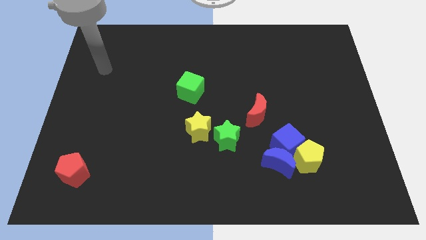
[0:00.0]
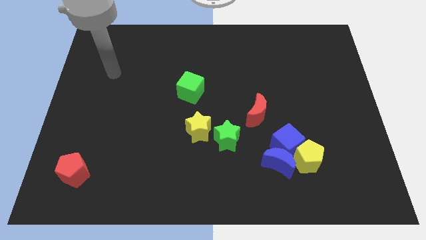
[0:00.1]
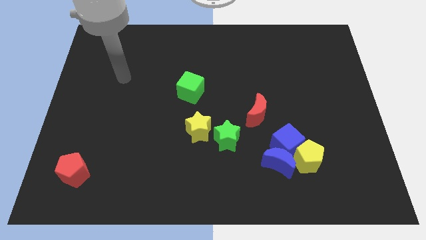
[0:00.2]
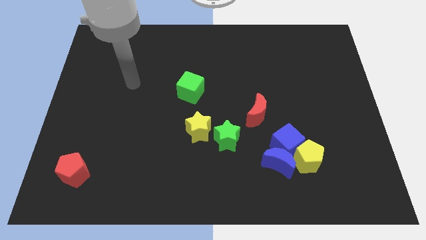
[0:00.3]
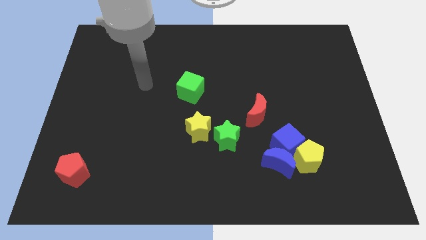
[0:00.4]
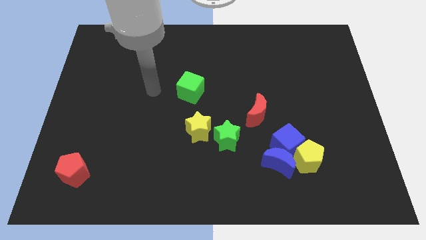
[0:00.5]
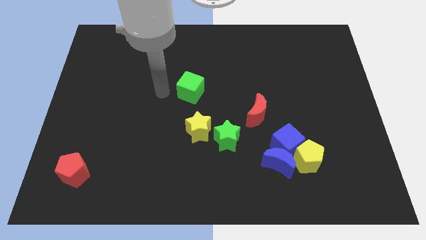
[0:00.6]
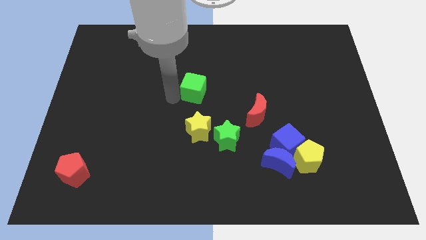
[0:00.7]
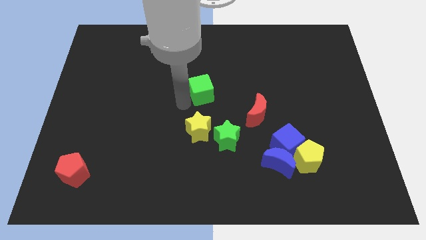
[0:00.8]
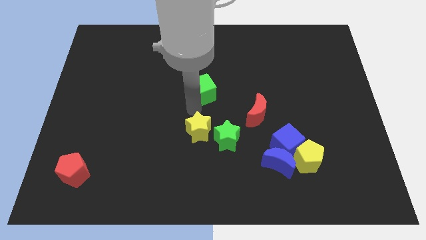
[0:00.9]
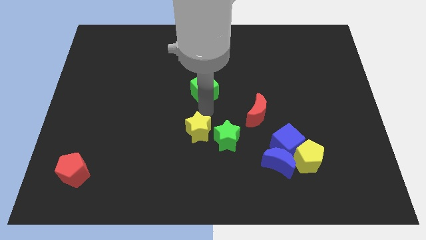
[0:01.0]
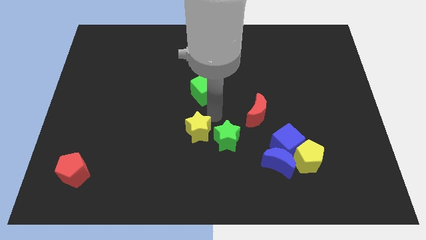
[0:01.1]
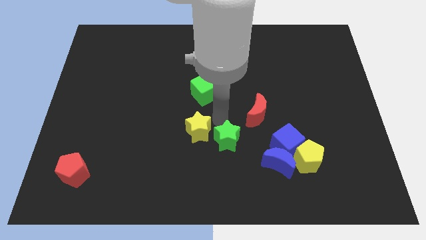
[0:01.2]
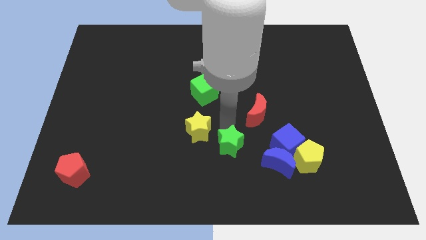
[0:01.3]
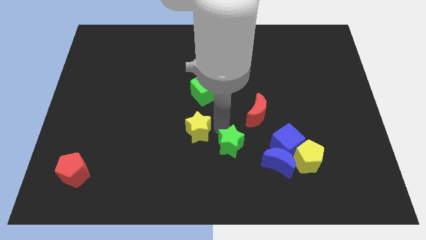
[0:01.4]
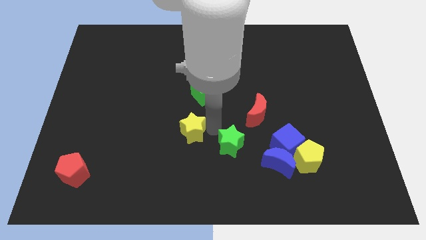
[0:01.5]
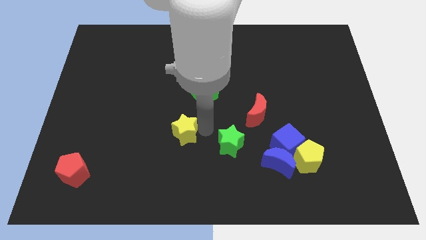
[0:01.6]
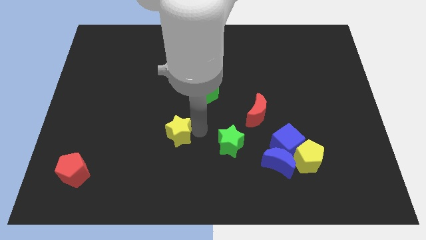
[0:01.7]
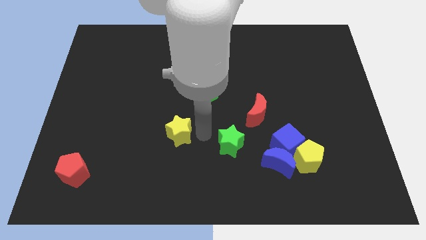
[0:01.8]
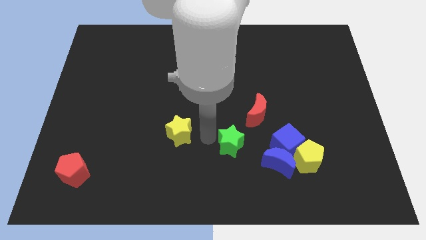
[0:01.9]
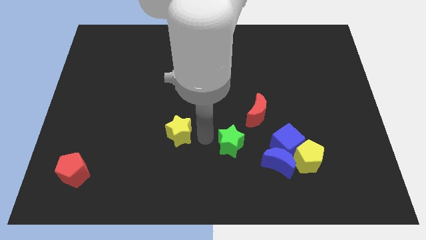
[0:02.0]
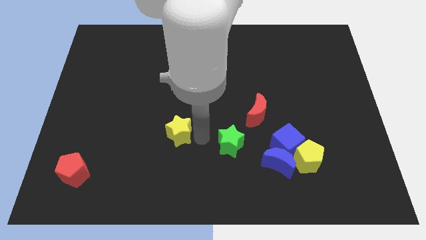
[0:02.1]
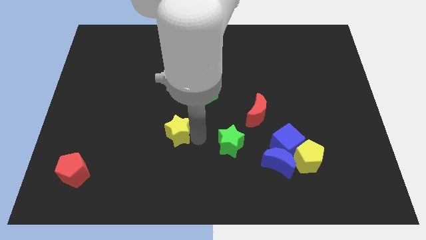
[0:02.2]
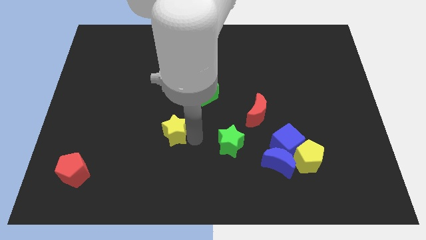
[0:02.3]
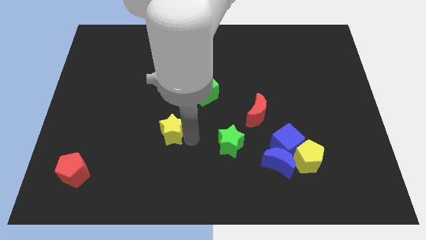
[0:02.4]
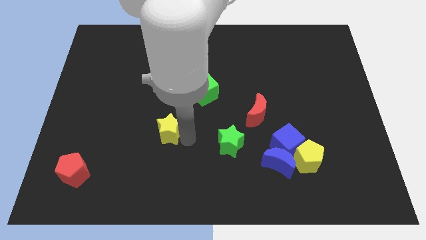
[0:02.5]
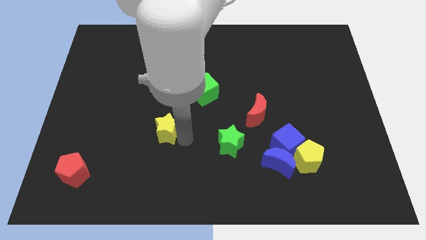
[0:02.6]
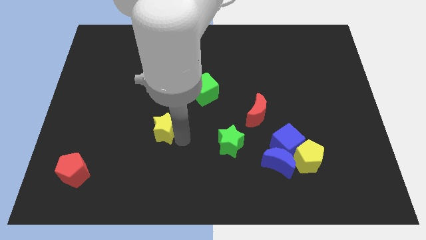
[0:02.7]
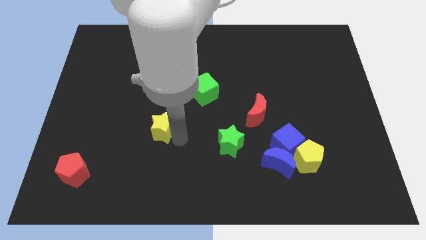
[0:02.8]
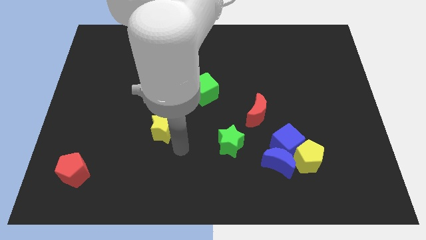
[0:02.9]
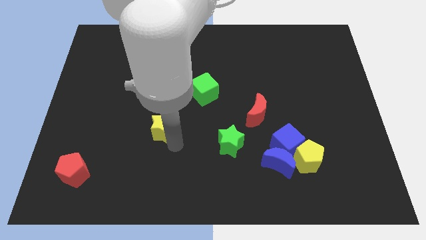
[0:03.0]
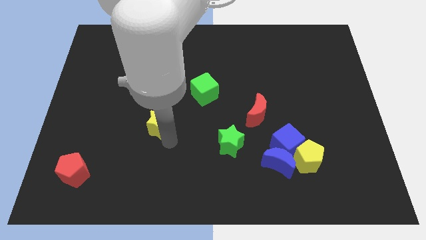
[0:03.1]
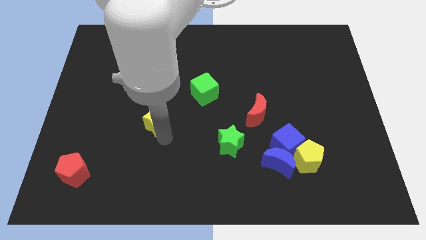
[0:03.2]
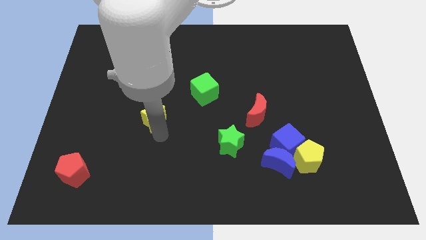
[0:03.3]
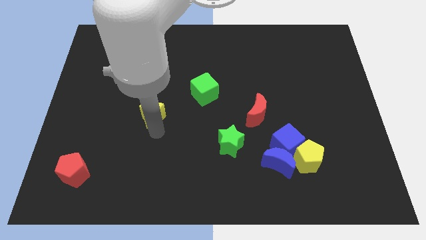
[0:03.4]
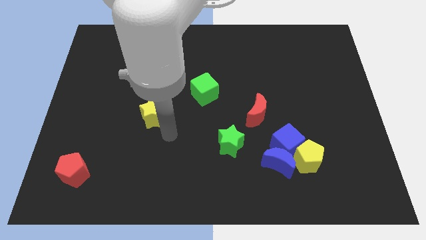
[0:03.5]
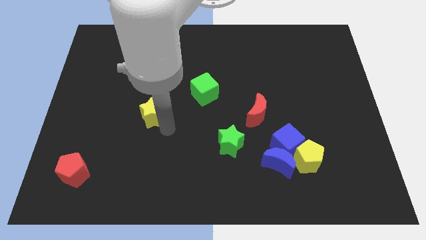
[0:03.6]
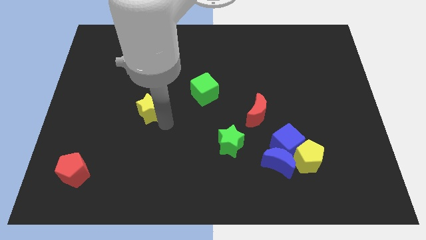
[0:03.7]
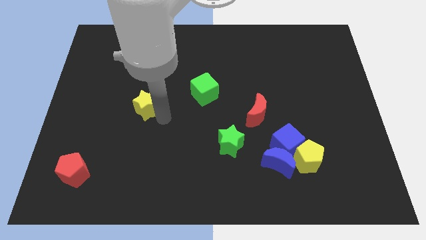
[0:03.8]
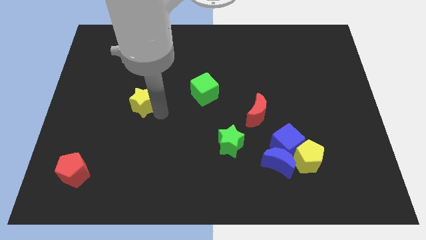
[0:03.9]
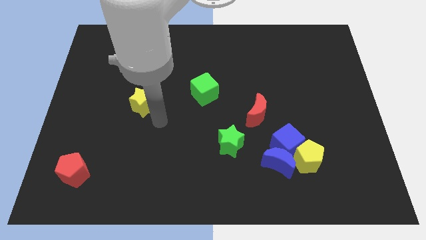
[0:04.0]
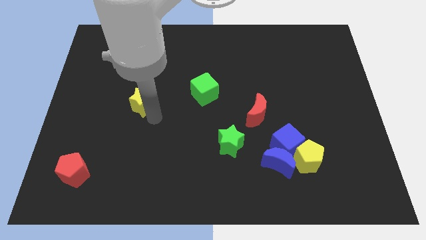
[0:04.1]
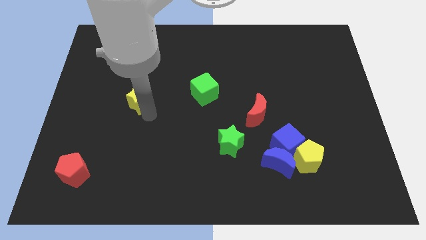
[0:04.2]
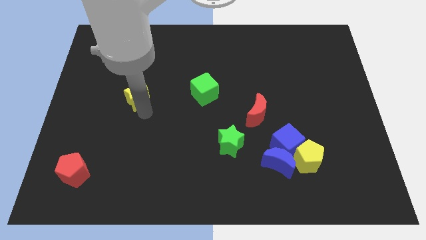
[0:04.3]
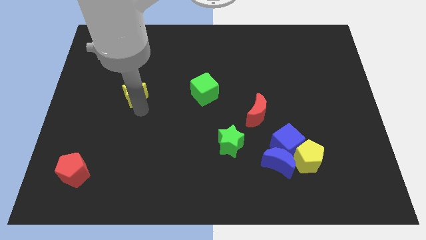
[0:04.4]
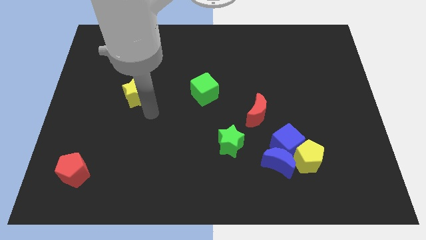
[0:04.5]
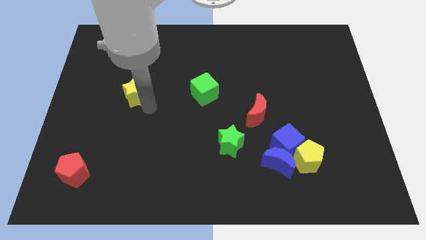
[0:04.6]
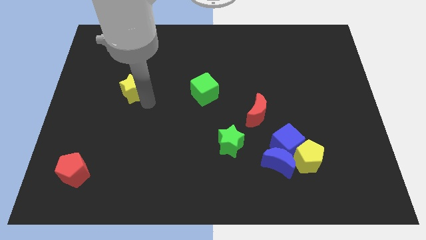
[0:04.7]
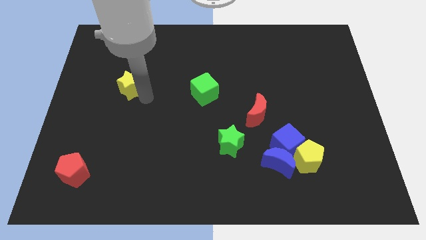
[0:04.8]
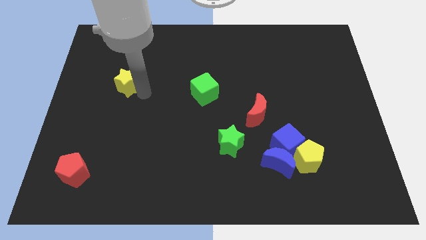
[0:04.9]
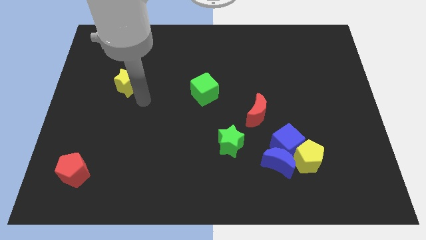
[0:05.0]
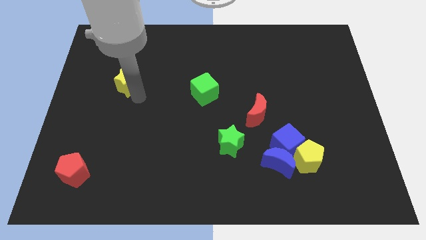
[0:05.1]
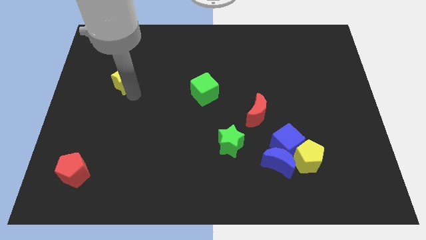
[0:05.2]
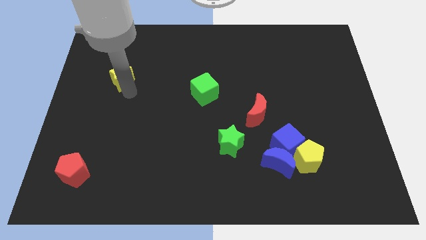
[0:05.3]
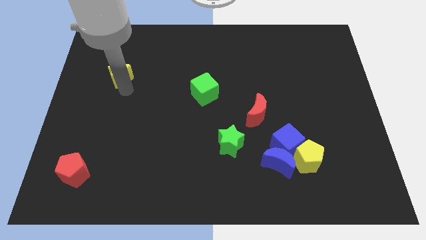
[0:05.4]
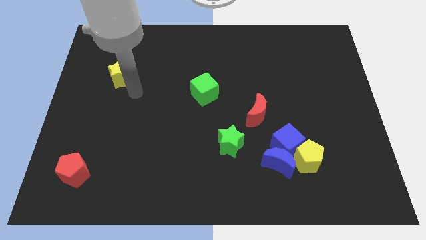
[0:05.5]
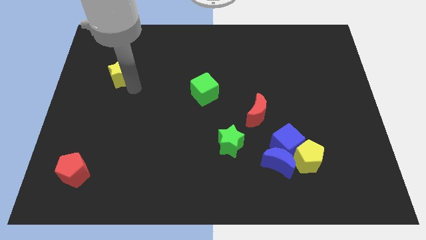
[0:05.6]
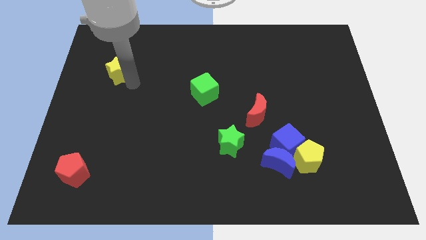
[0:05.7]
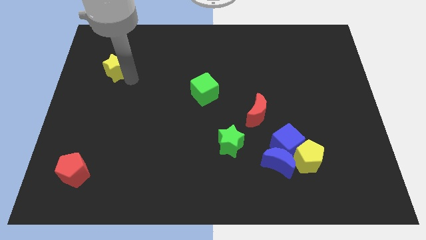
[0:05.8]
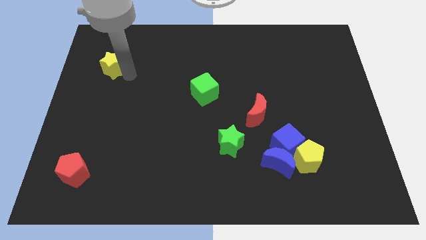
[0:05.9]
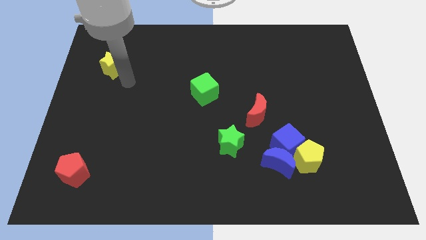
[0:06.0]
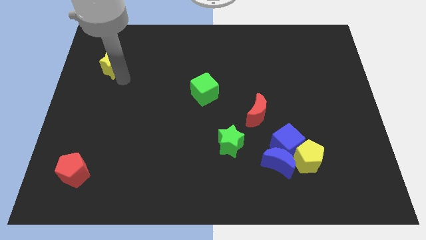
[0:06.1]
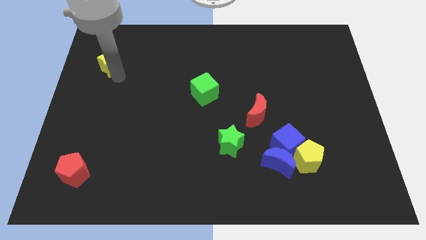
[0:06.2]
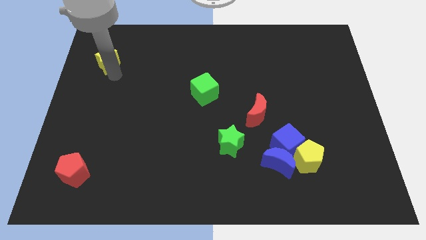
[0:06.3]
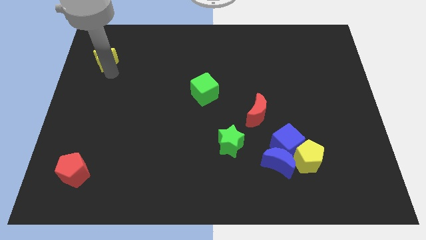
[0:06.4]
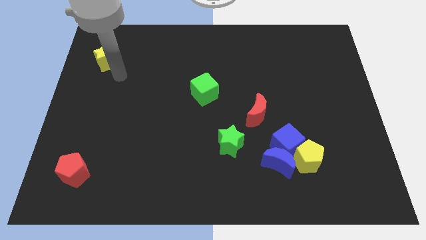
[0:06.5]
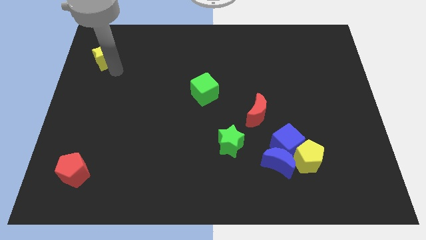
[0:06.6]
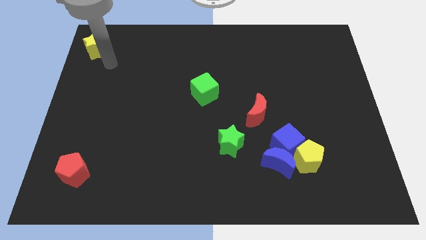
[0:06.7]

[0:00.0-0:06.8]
move the yellow star to the top left corner

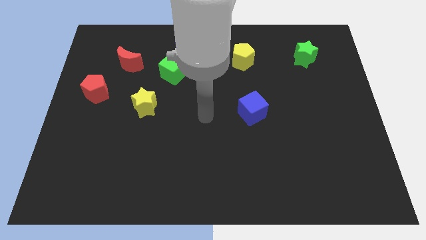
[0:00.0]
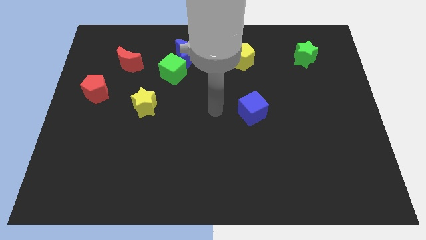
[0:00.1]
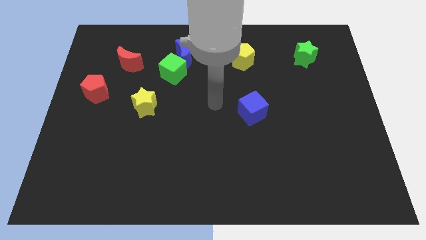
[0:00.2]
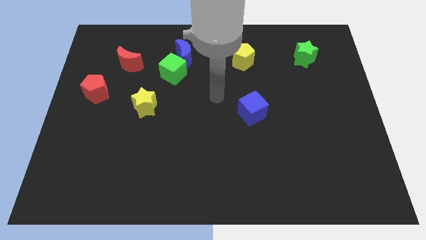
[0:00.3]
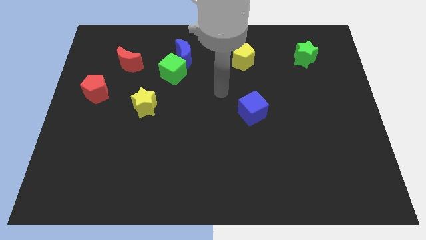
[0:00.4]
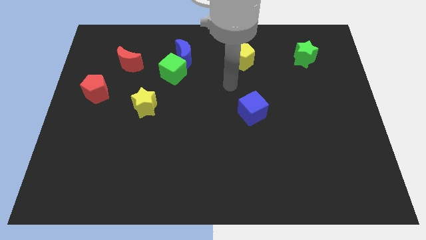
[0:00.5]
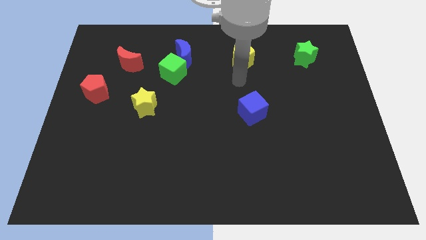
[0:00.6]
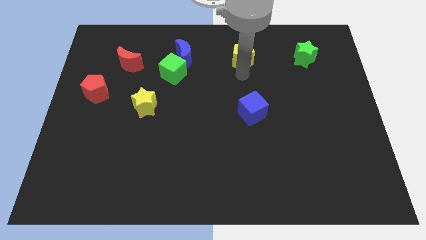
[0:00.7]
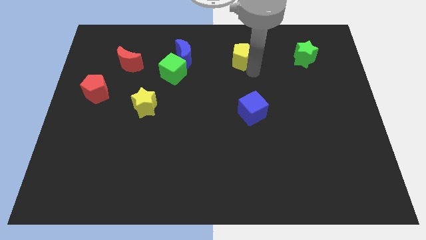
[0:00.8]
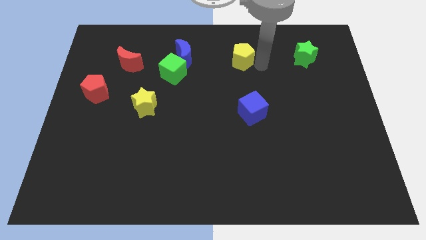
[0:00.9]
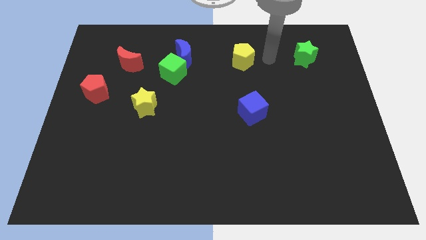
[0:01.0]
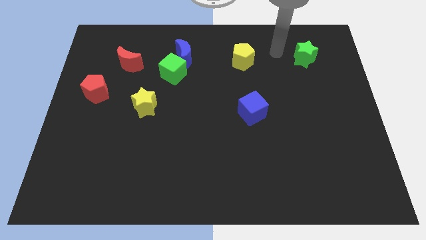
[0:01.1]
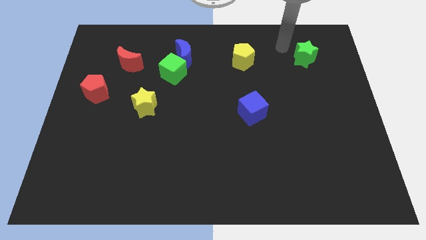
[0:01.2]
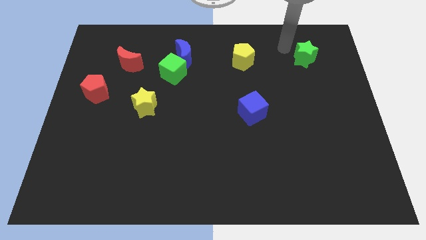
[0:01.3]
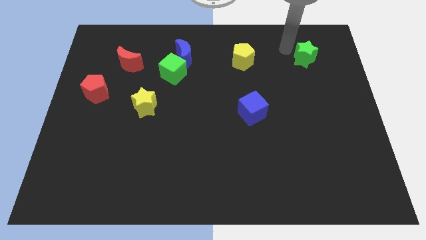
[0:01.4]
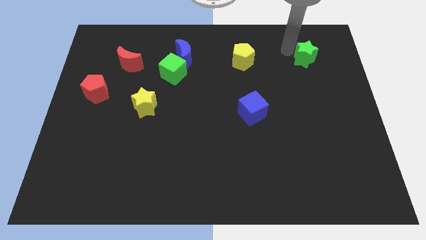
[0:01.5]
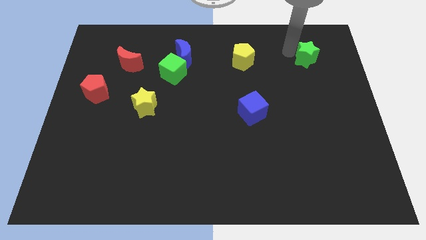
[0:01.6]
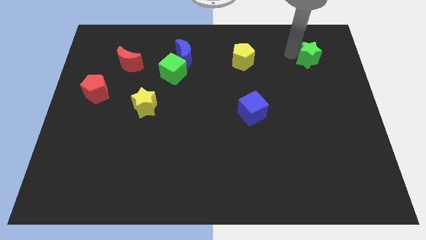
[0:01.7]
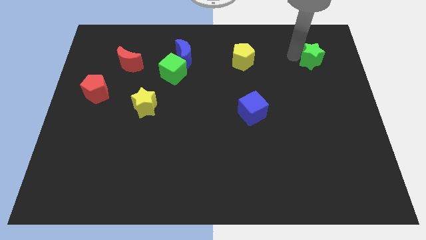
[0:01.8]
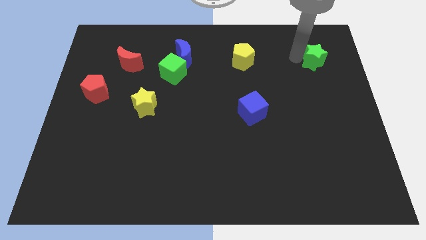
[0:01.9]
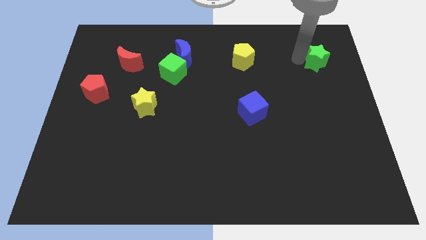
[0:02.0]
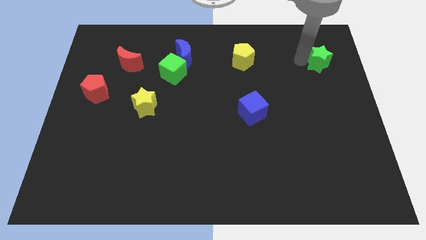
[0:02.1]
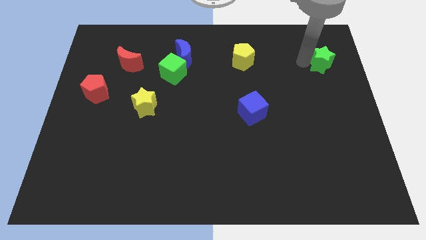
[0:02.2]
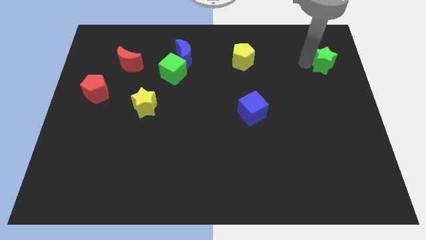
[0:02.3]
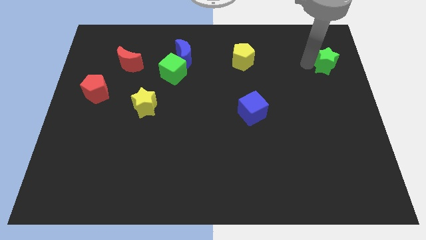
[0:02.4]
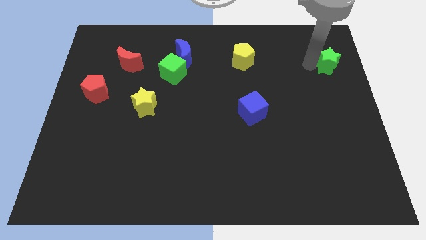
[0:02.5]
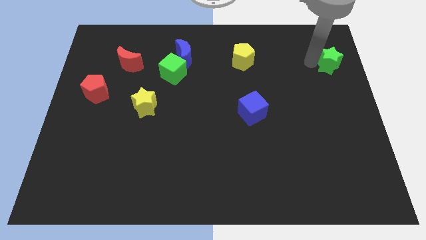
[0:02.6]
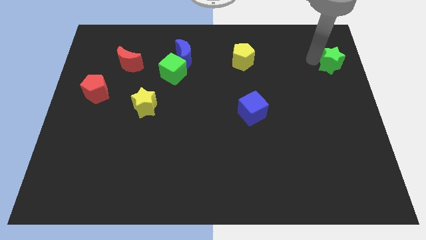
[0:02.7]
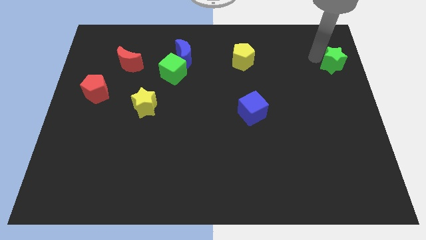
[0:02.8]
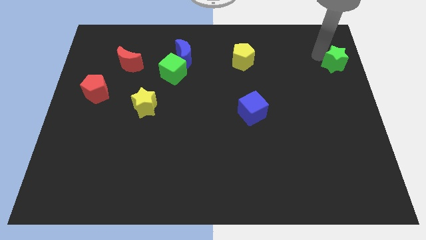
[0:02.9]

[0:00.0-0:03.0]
slide the green star to the right side
